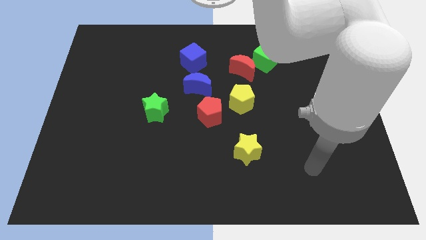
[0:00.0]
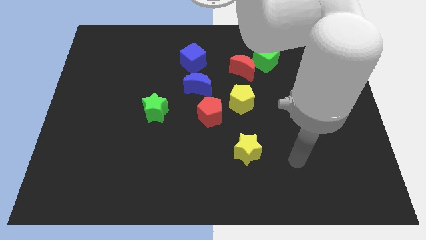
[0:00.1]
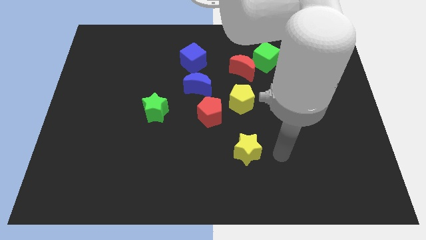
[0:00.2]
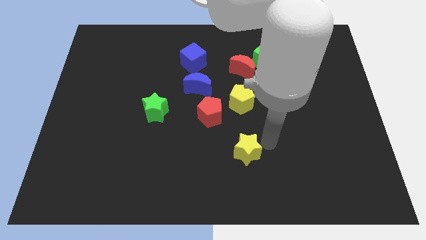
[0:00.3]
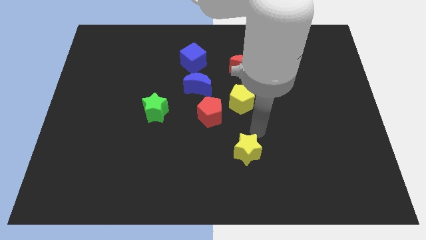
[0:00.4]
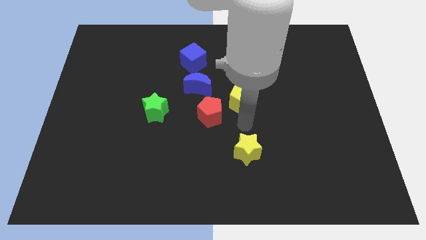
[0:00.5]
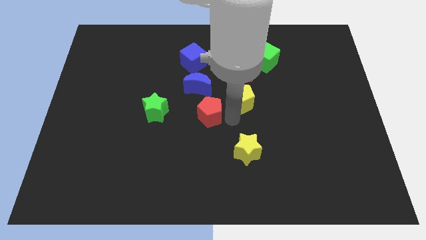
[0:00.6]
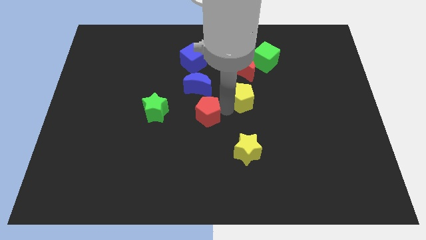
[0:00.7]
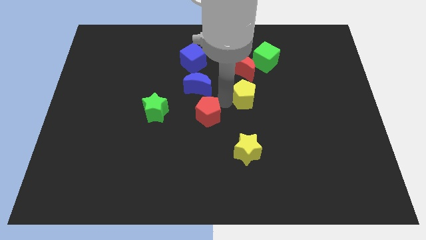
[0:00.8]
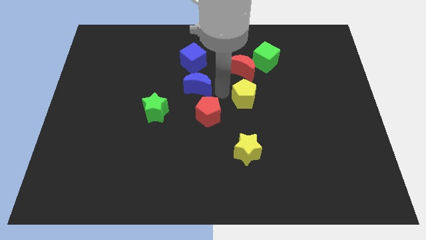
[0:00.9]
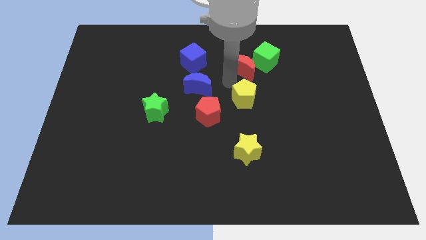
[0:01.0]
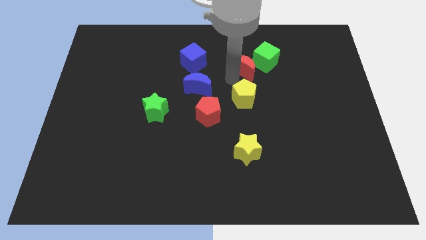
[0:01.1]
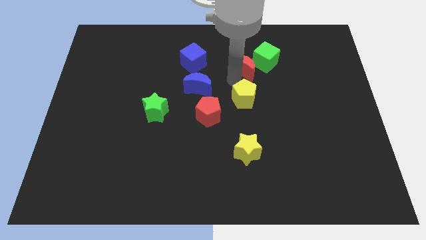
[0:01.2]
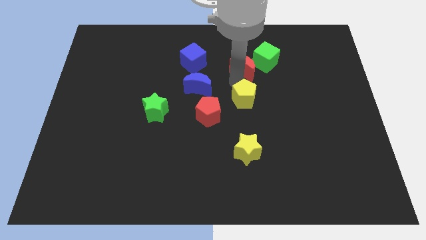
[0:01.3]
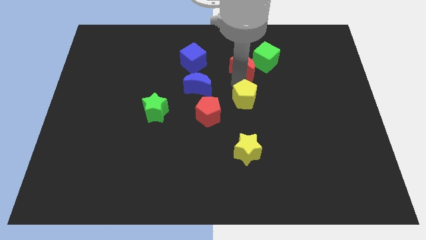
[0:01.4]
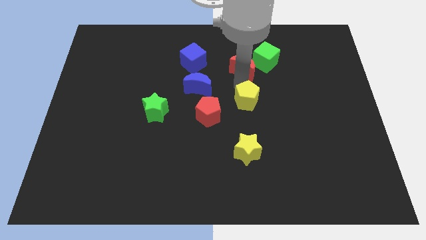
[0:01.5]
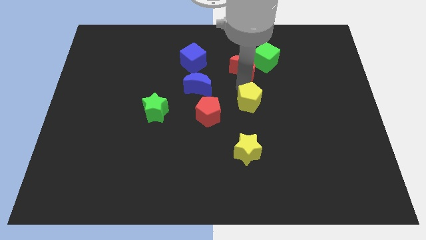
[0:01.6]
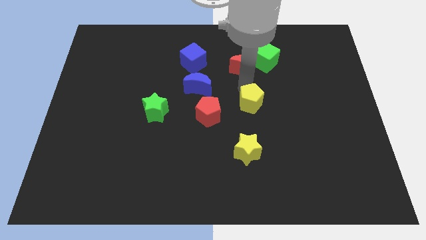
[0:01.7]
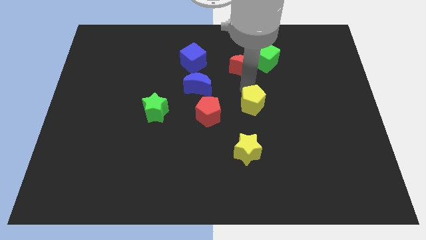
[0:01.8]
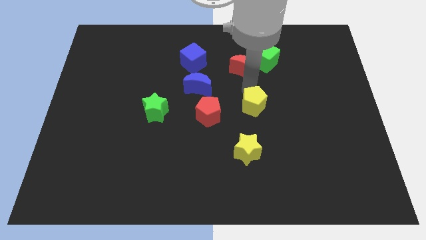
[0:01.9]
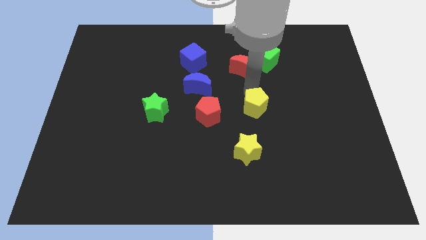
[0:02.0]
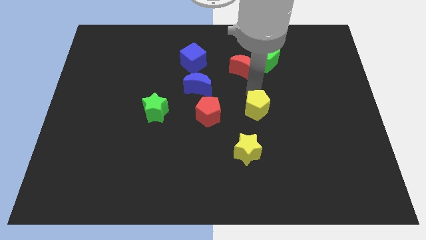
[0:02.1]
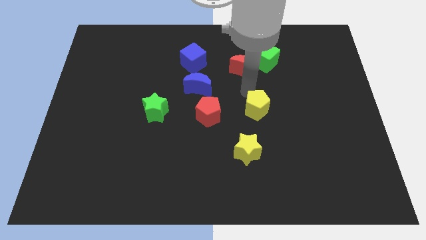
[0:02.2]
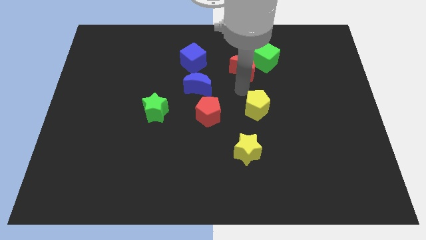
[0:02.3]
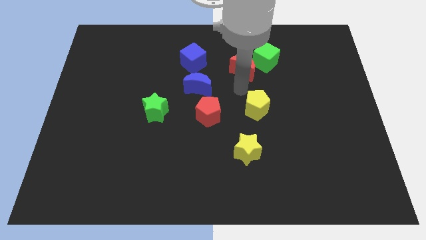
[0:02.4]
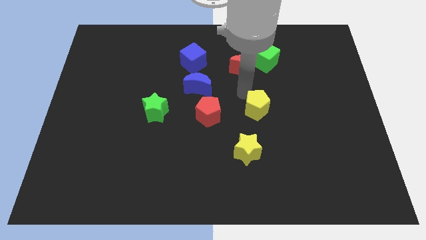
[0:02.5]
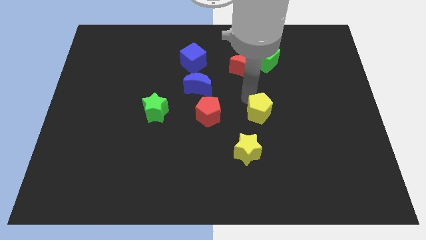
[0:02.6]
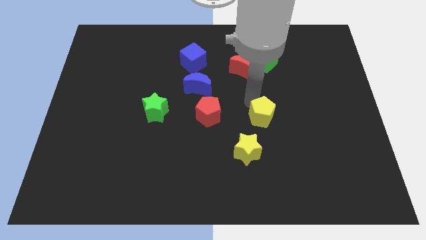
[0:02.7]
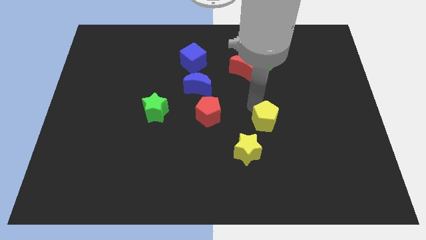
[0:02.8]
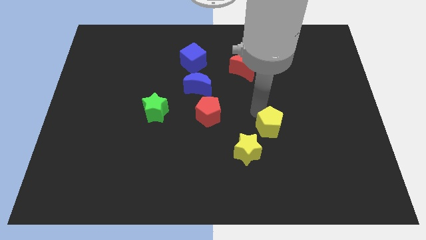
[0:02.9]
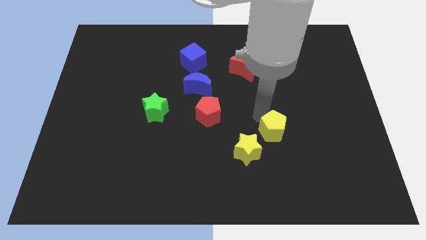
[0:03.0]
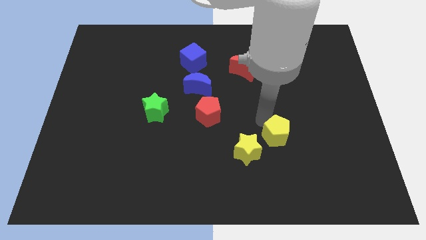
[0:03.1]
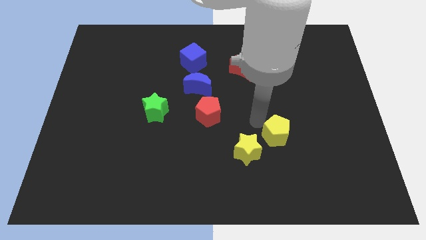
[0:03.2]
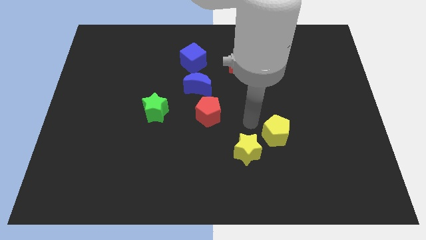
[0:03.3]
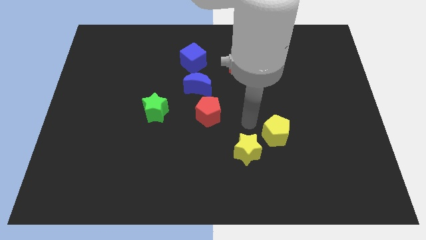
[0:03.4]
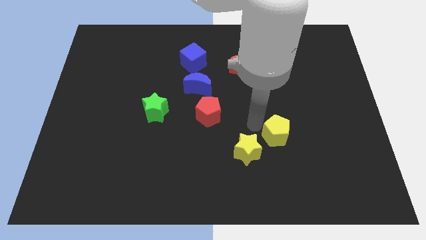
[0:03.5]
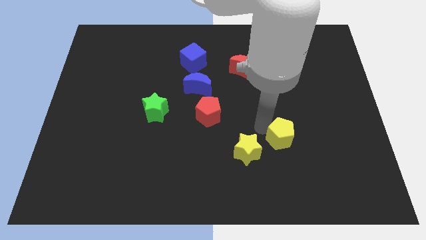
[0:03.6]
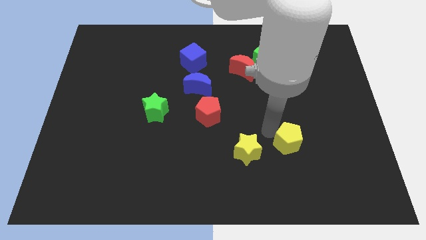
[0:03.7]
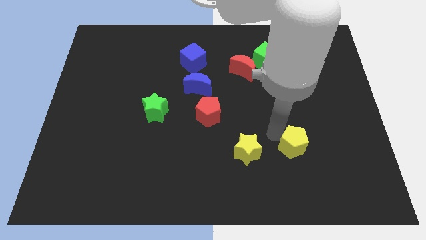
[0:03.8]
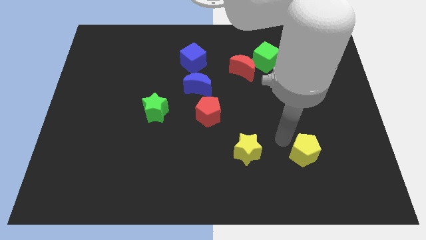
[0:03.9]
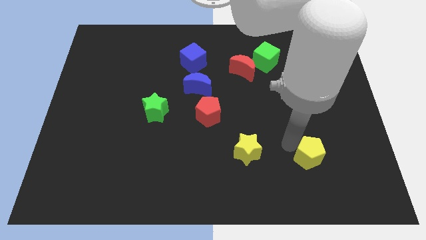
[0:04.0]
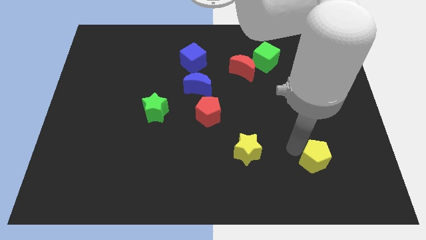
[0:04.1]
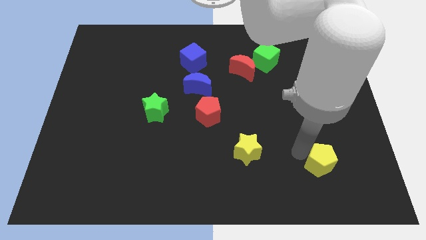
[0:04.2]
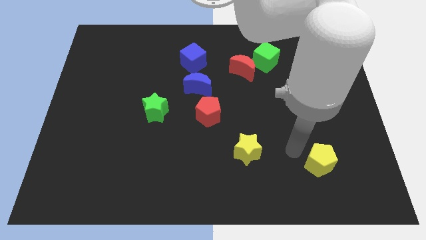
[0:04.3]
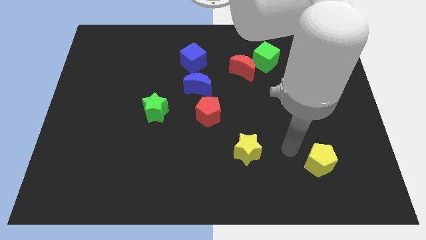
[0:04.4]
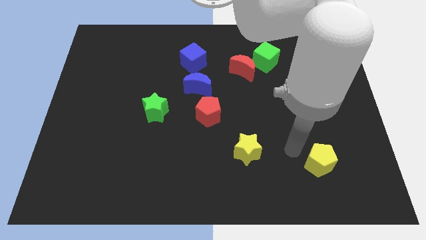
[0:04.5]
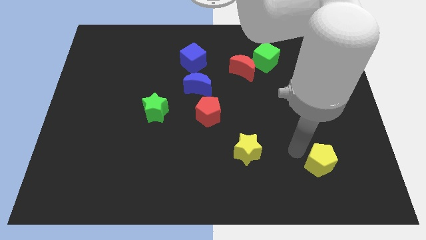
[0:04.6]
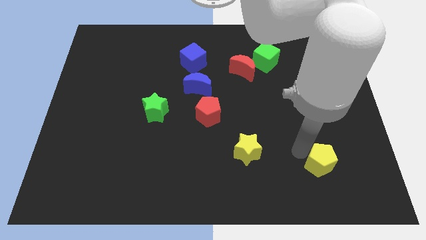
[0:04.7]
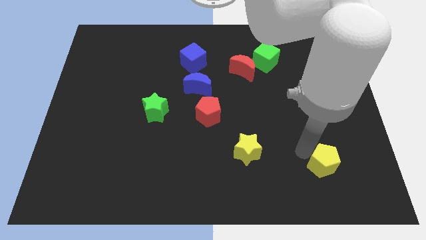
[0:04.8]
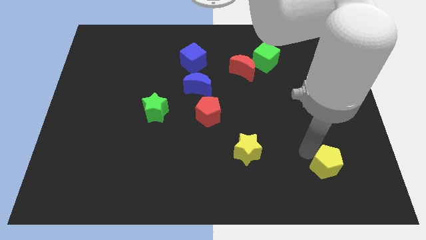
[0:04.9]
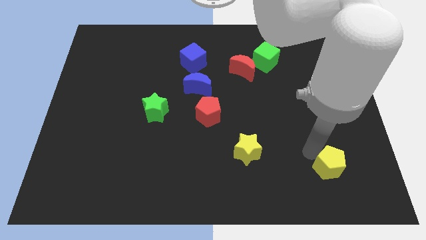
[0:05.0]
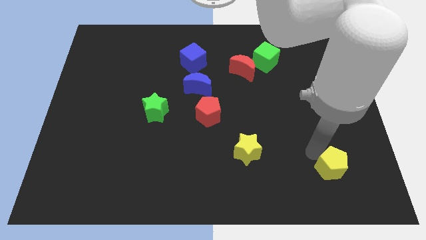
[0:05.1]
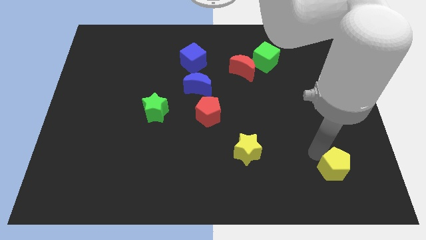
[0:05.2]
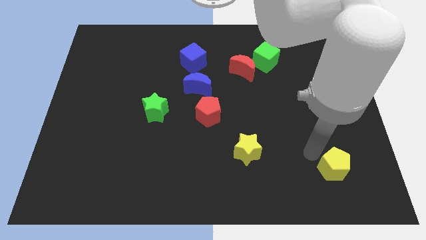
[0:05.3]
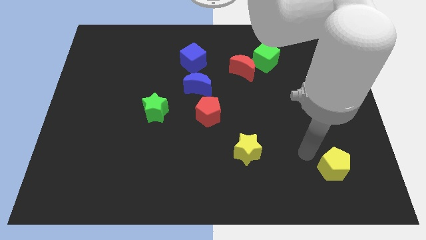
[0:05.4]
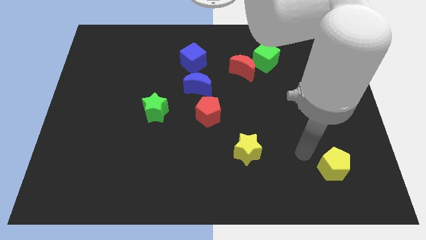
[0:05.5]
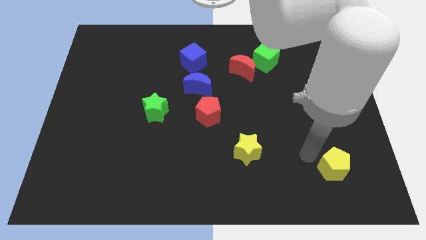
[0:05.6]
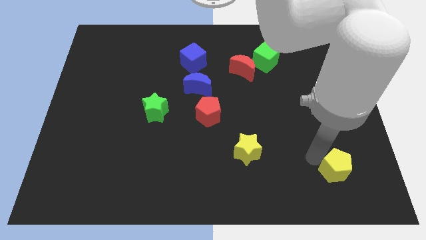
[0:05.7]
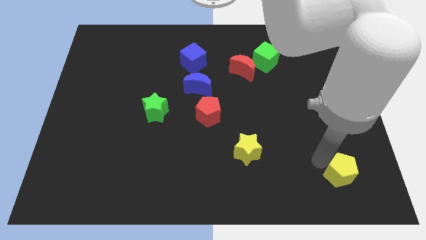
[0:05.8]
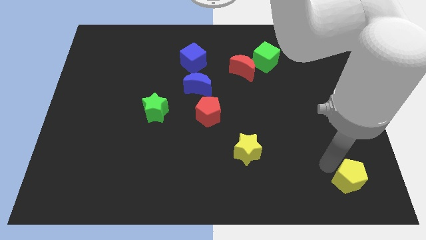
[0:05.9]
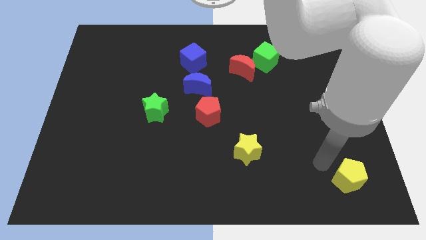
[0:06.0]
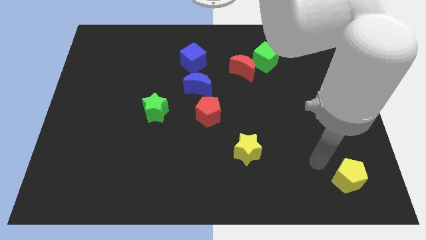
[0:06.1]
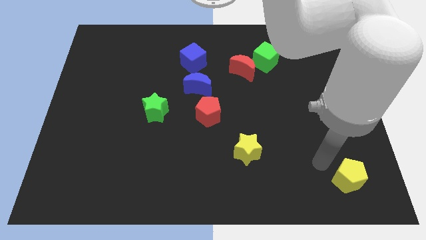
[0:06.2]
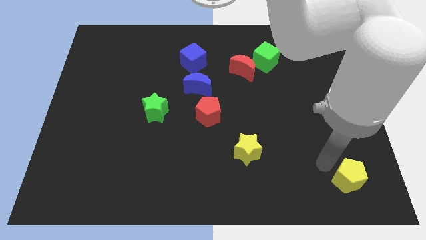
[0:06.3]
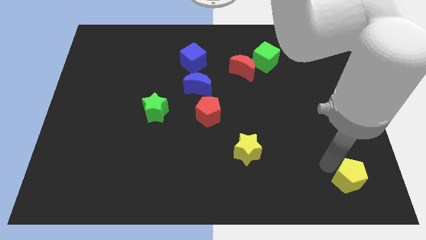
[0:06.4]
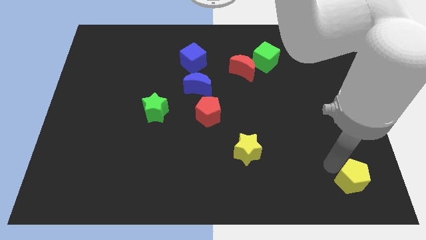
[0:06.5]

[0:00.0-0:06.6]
move the yellow pentagon to the bottom right
